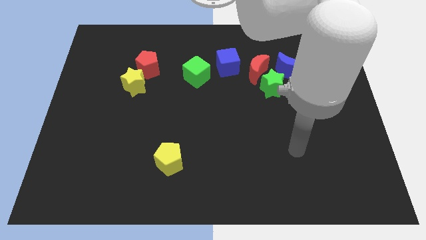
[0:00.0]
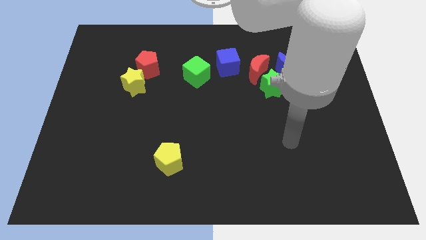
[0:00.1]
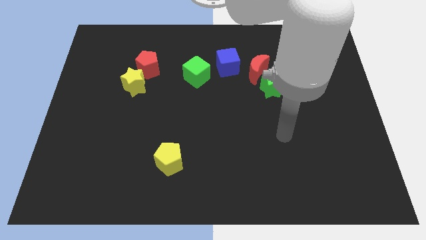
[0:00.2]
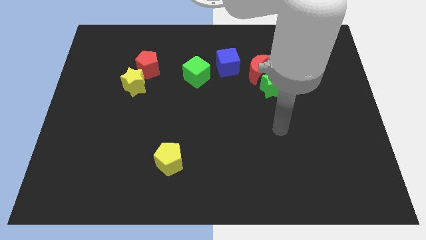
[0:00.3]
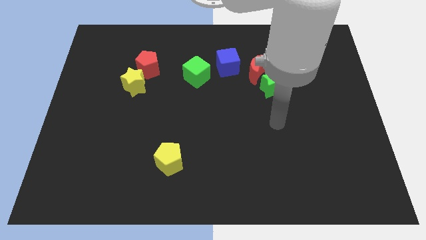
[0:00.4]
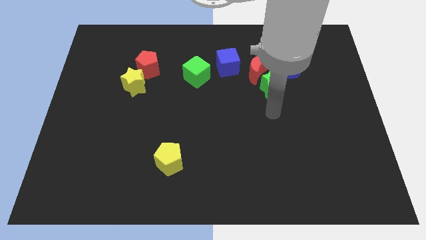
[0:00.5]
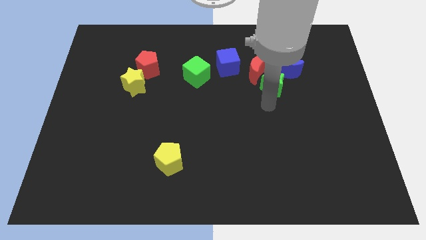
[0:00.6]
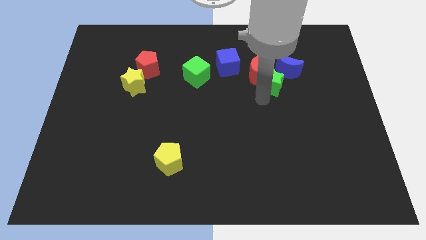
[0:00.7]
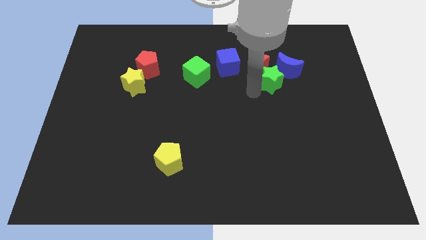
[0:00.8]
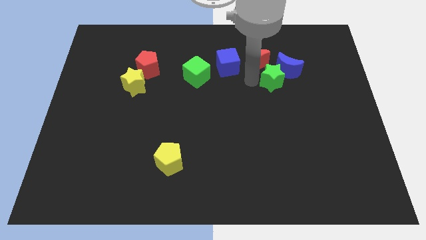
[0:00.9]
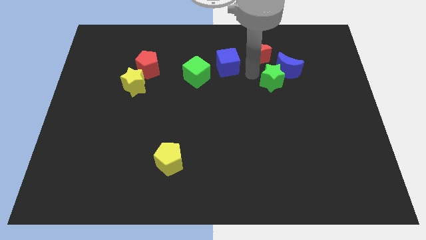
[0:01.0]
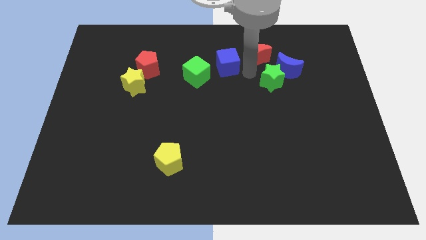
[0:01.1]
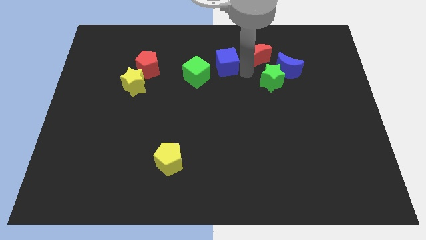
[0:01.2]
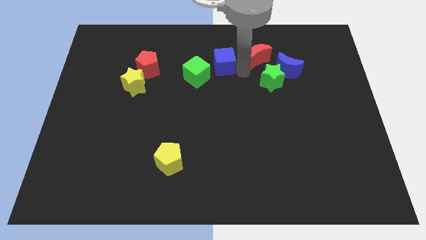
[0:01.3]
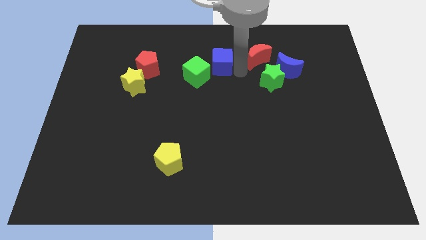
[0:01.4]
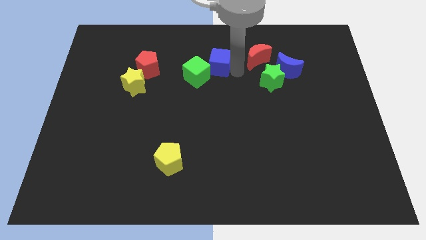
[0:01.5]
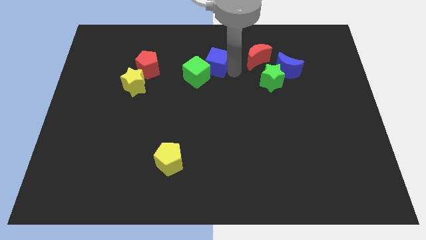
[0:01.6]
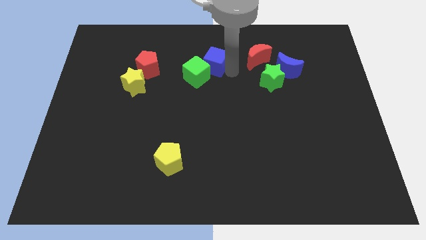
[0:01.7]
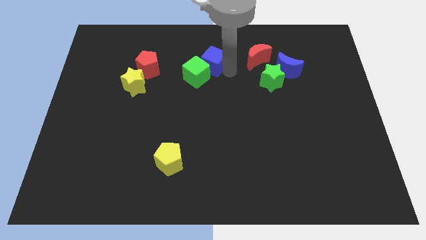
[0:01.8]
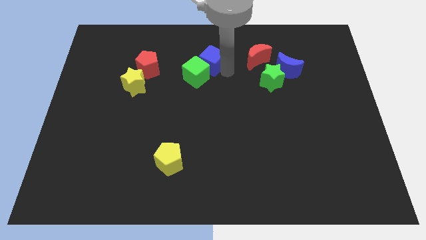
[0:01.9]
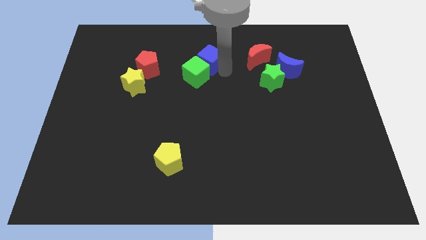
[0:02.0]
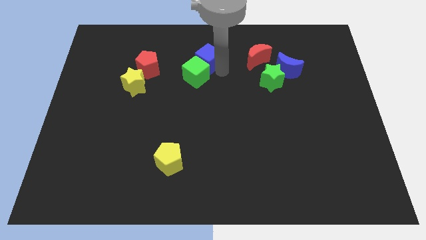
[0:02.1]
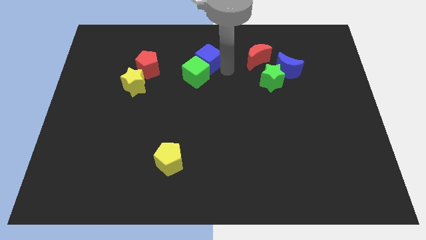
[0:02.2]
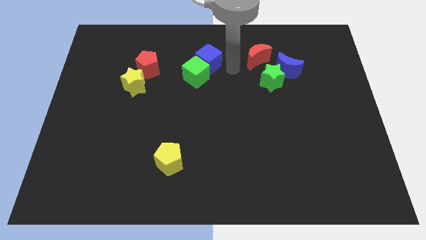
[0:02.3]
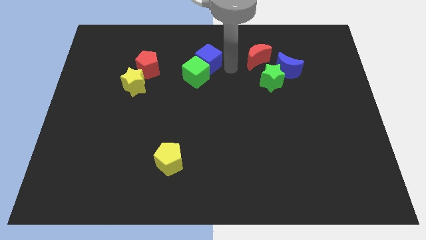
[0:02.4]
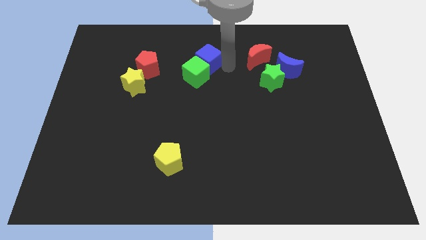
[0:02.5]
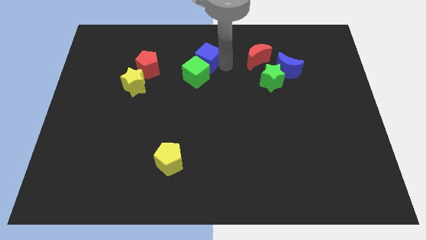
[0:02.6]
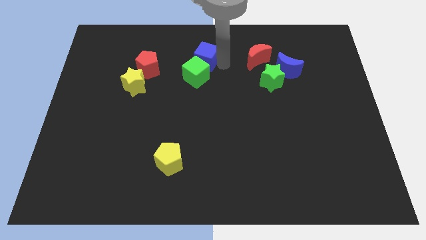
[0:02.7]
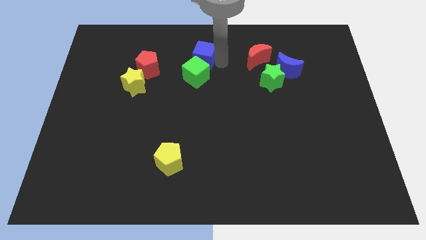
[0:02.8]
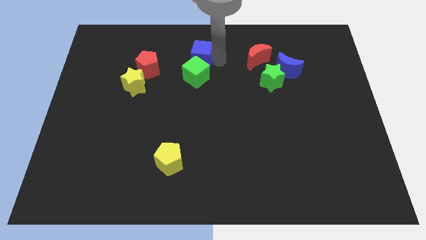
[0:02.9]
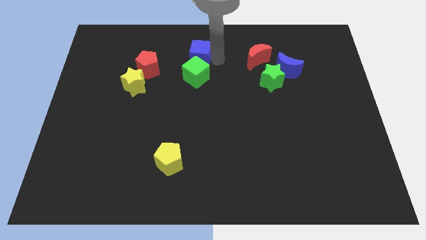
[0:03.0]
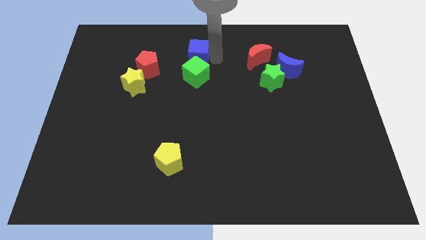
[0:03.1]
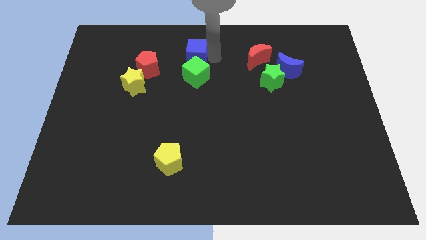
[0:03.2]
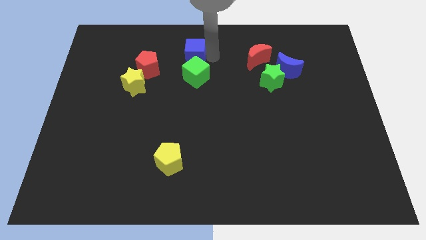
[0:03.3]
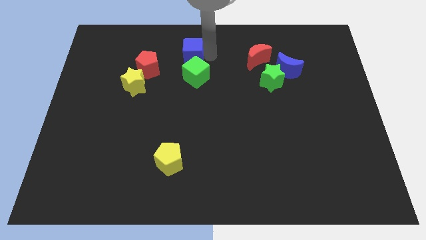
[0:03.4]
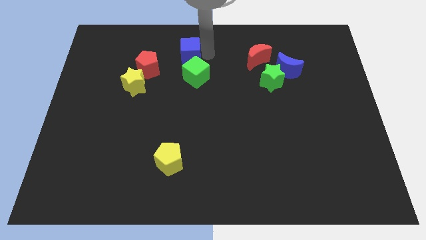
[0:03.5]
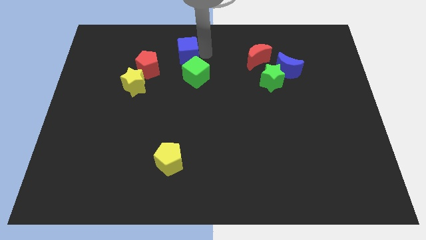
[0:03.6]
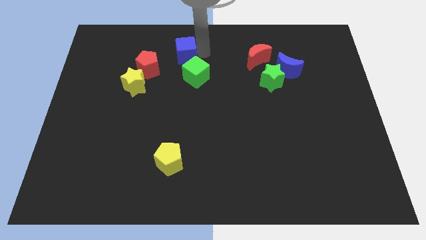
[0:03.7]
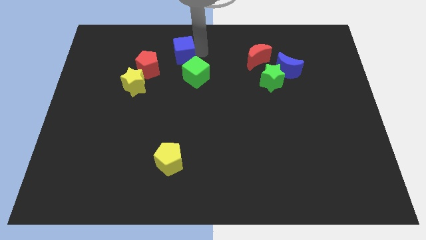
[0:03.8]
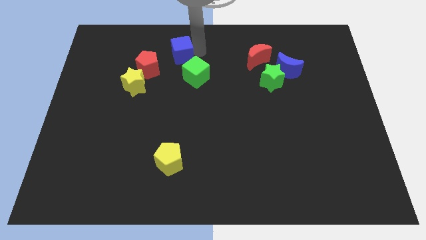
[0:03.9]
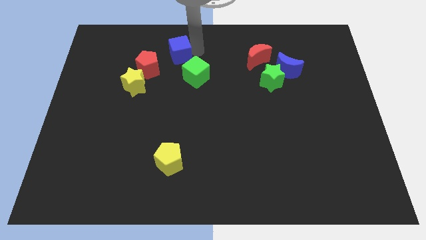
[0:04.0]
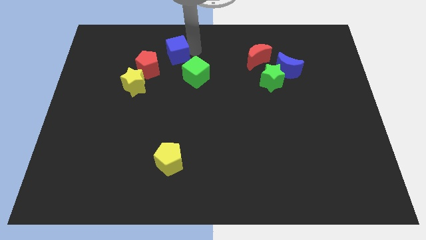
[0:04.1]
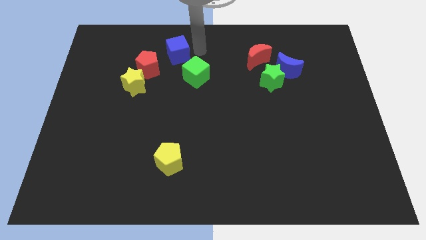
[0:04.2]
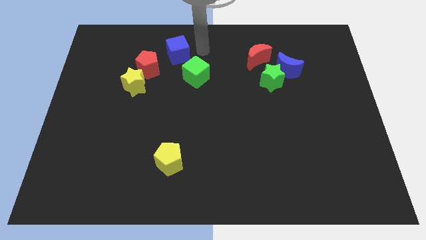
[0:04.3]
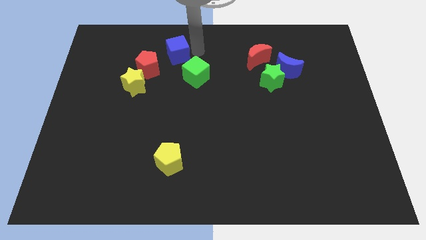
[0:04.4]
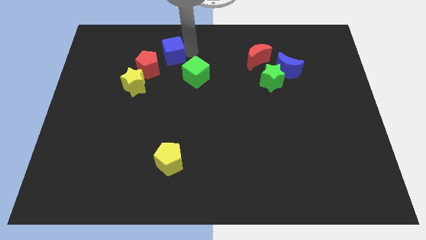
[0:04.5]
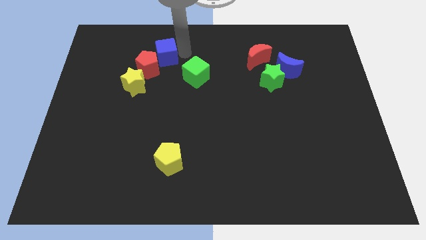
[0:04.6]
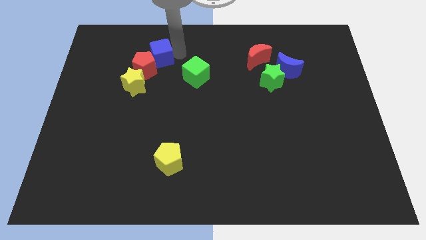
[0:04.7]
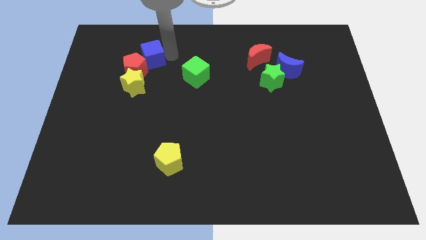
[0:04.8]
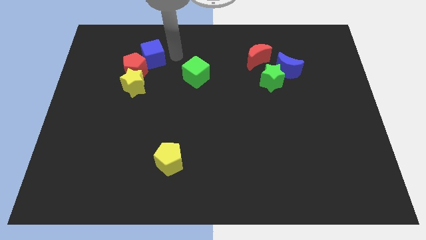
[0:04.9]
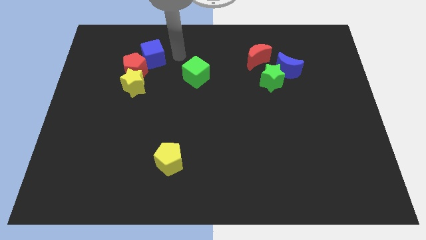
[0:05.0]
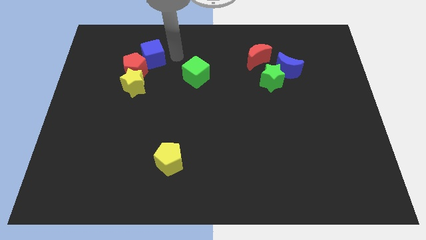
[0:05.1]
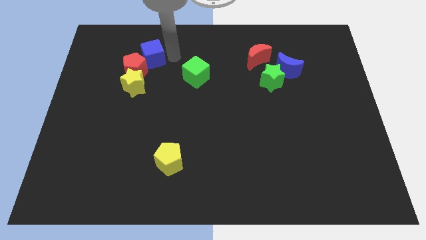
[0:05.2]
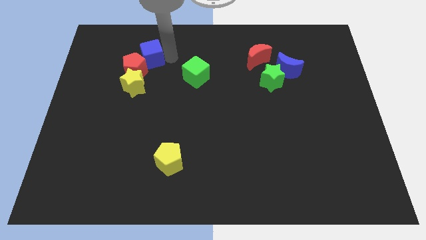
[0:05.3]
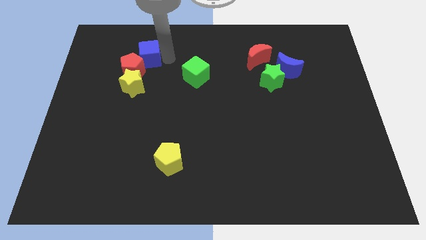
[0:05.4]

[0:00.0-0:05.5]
push the blue cube to the left

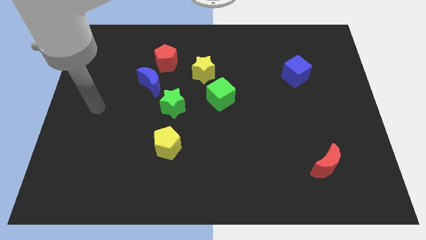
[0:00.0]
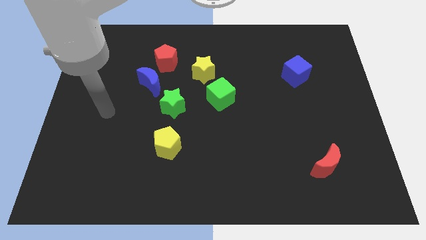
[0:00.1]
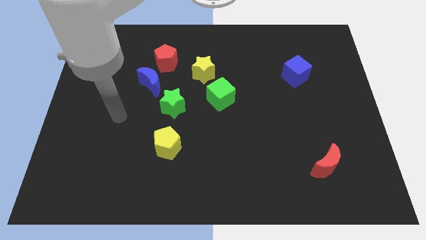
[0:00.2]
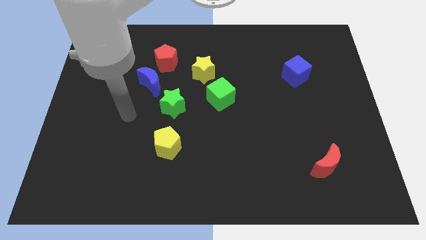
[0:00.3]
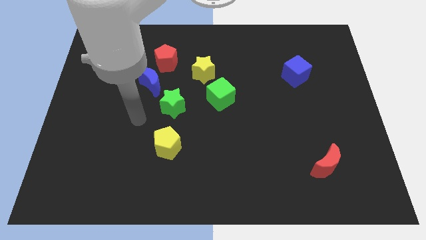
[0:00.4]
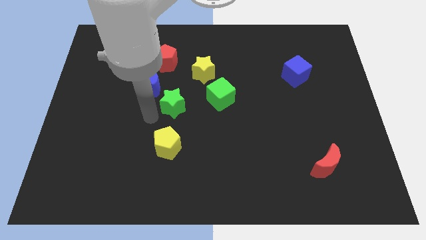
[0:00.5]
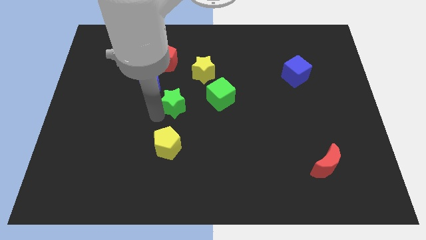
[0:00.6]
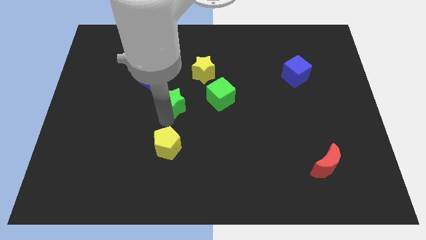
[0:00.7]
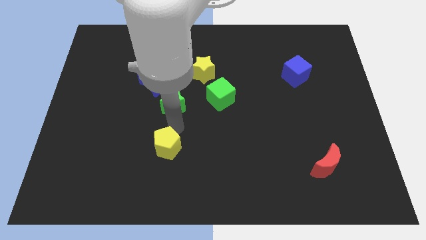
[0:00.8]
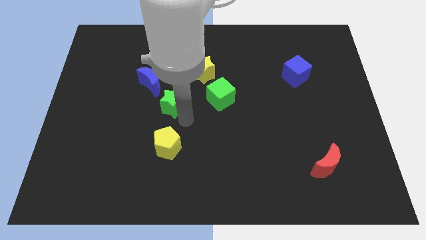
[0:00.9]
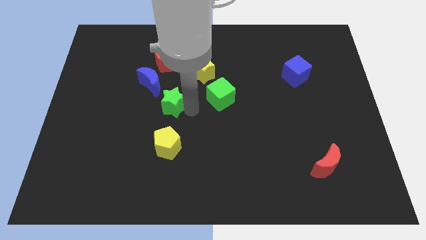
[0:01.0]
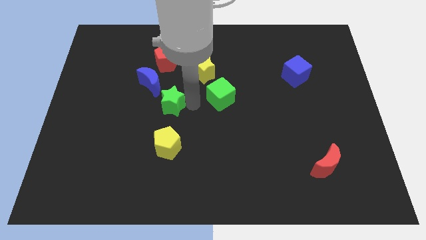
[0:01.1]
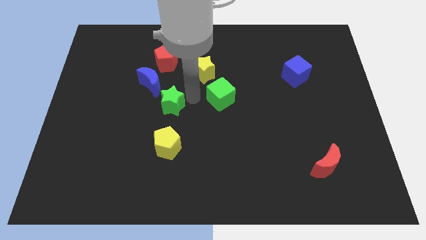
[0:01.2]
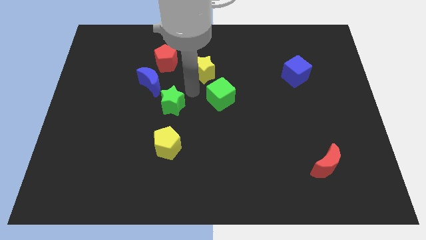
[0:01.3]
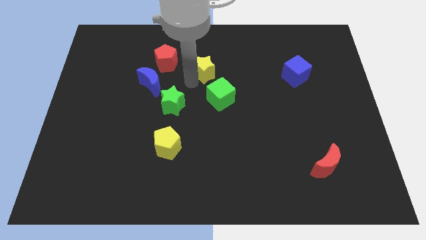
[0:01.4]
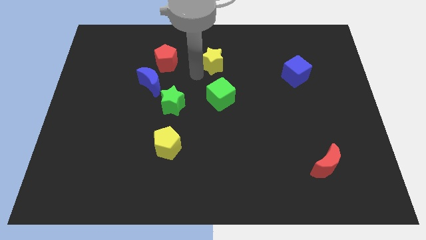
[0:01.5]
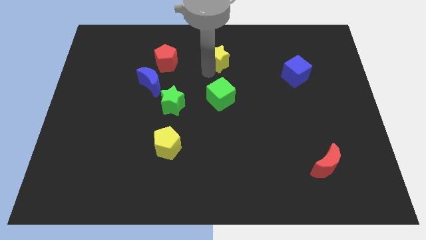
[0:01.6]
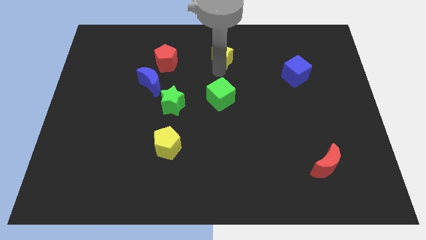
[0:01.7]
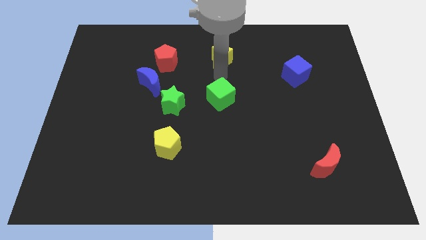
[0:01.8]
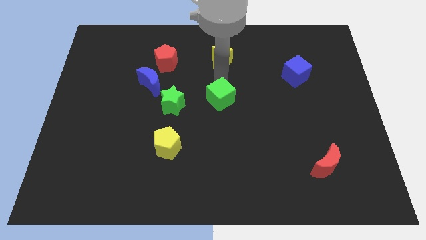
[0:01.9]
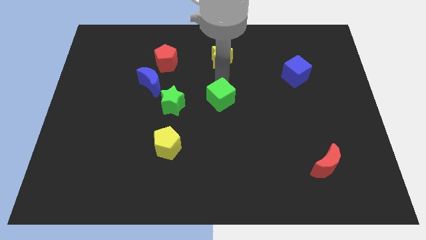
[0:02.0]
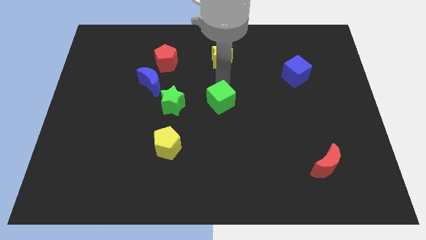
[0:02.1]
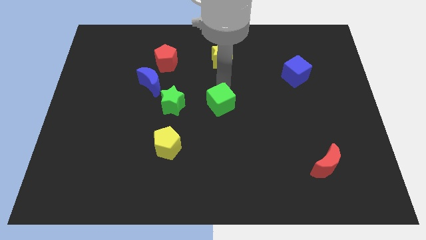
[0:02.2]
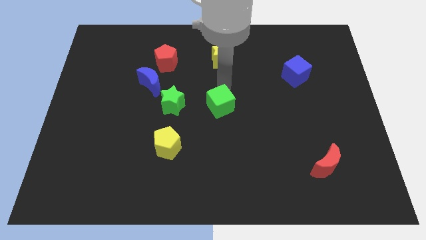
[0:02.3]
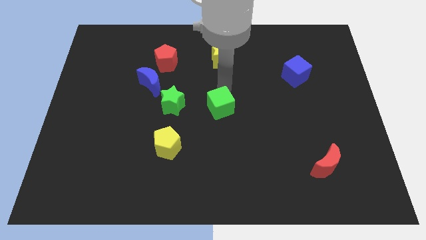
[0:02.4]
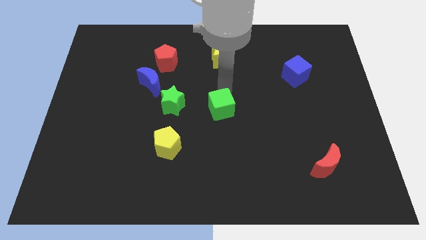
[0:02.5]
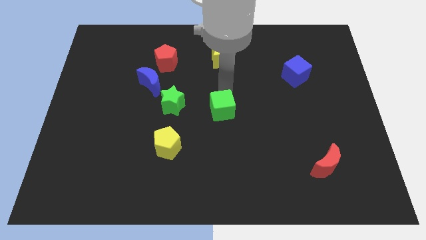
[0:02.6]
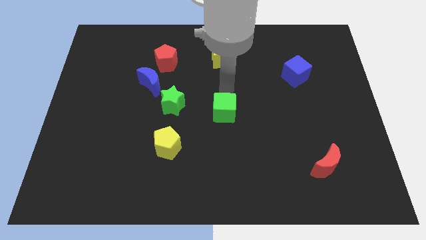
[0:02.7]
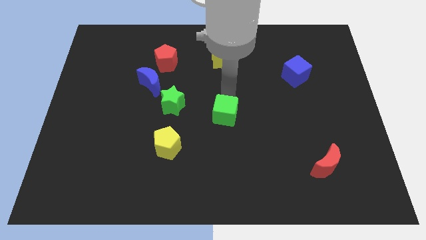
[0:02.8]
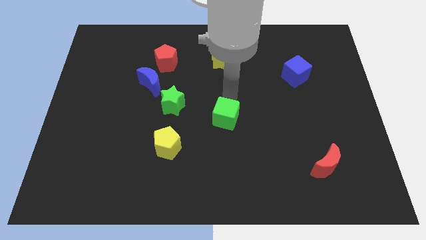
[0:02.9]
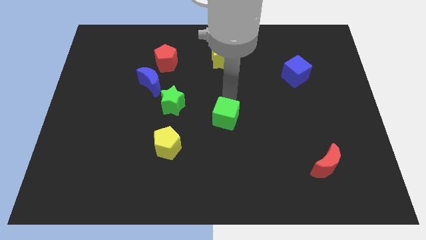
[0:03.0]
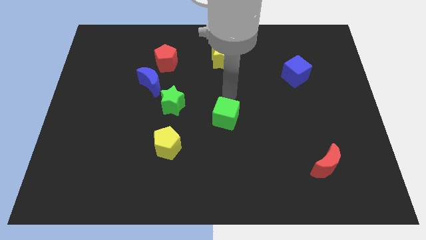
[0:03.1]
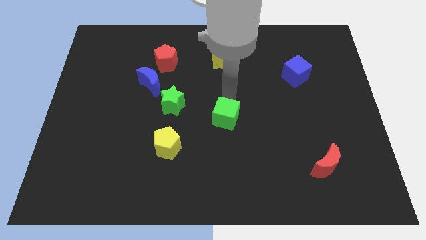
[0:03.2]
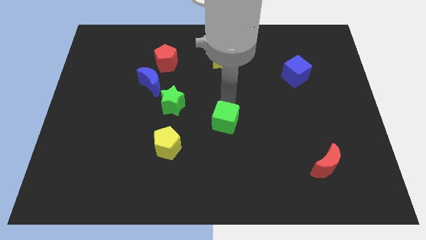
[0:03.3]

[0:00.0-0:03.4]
slide the green cube a little down
